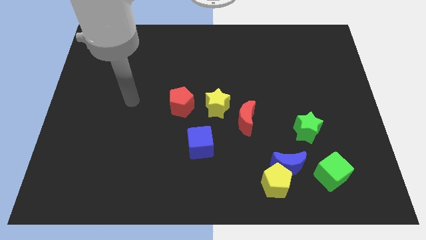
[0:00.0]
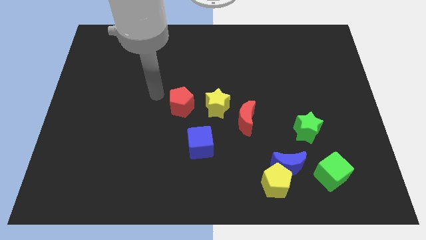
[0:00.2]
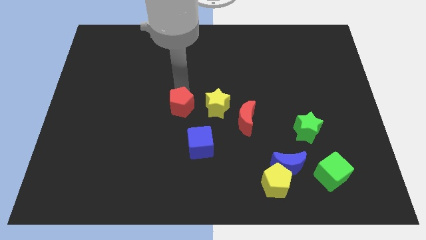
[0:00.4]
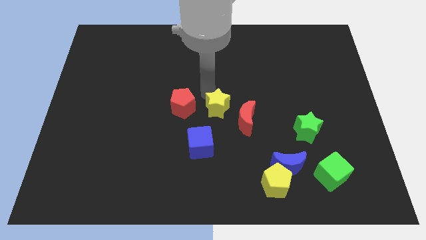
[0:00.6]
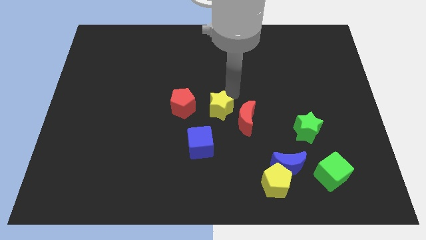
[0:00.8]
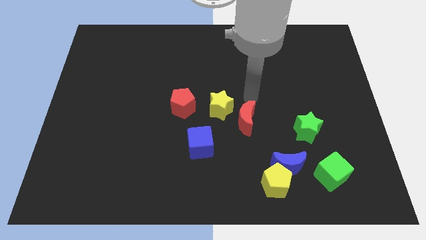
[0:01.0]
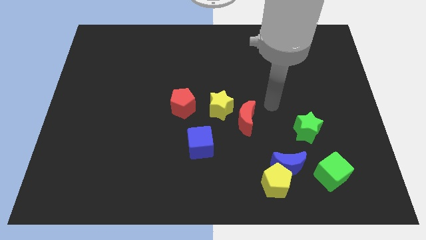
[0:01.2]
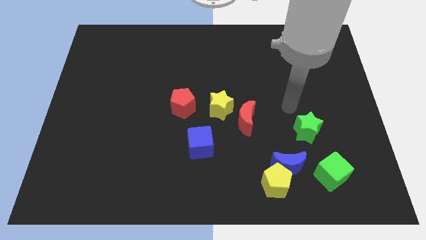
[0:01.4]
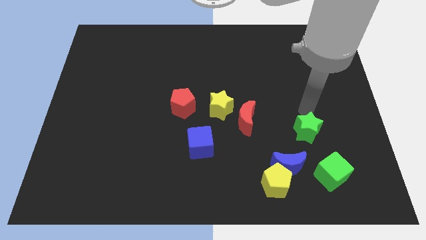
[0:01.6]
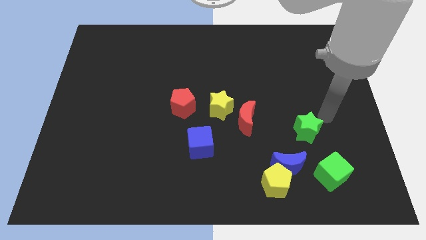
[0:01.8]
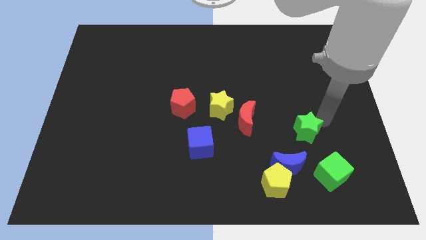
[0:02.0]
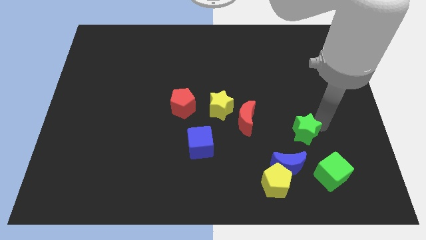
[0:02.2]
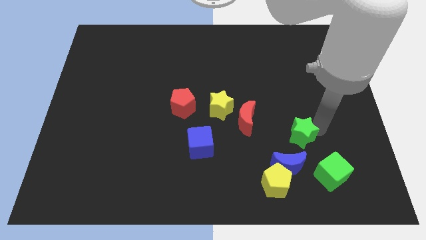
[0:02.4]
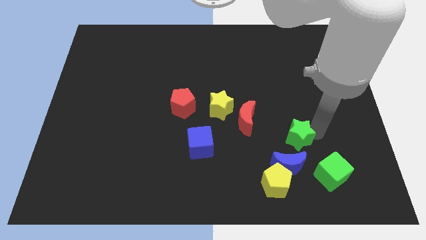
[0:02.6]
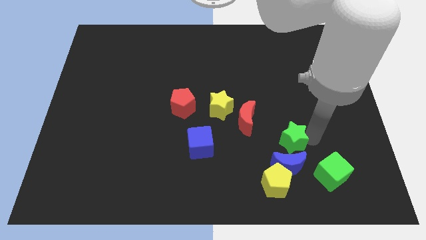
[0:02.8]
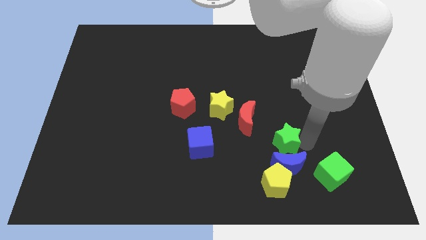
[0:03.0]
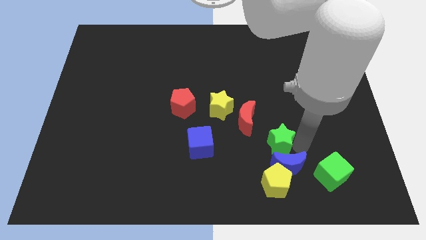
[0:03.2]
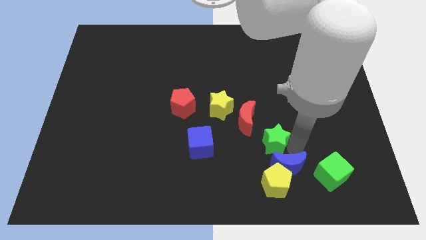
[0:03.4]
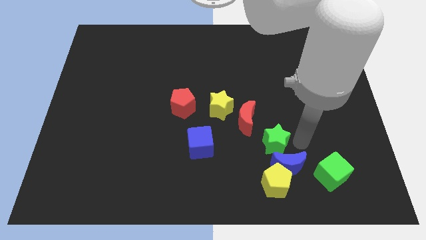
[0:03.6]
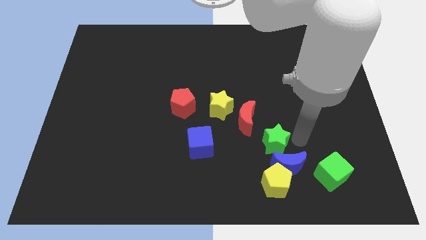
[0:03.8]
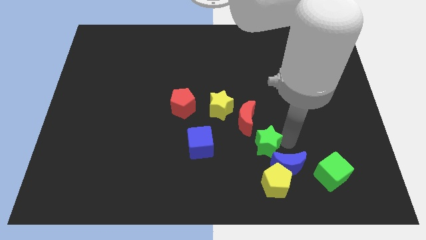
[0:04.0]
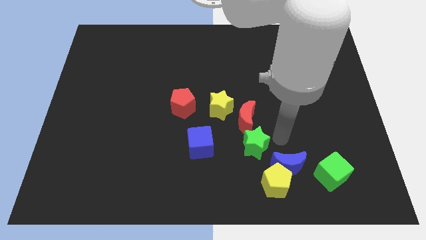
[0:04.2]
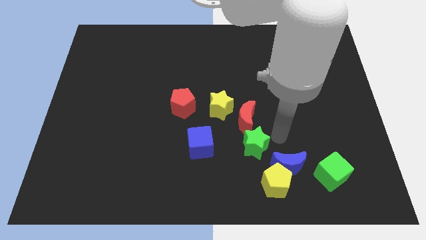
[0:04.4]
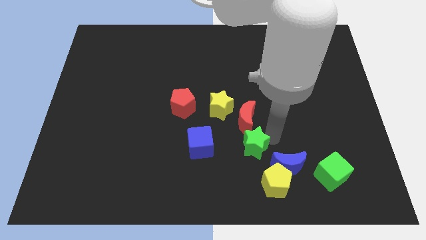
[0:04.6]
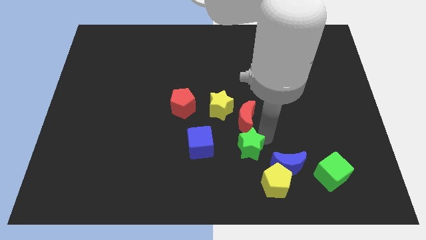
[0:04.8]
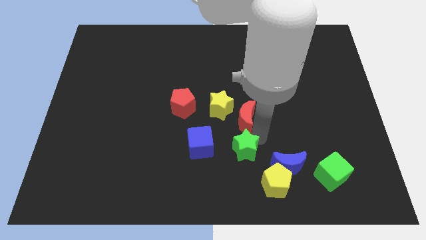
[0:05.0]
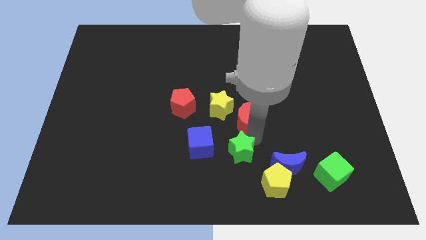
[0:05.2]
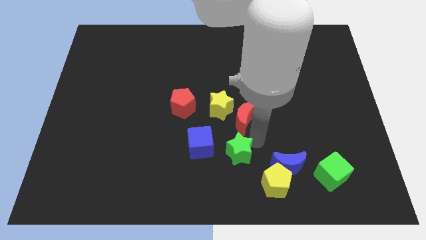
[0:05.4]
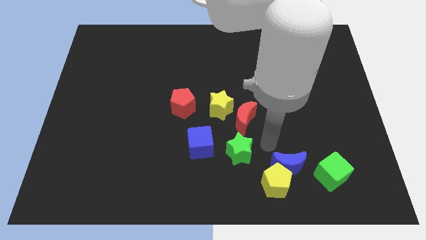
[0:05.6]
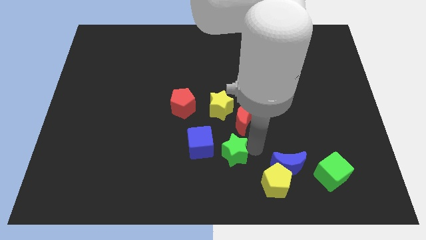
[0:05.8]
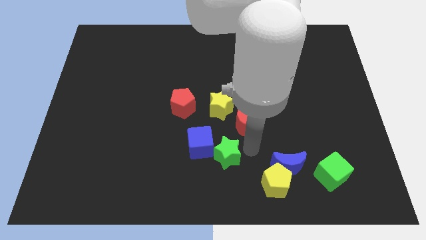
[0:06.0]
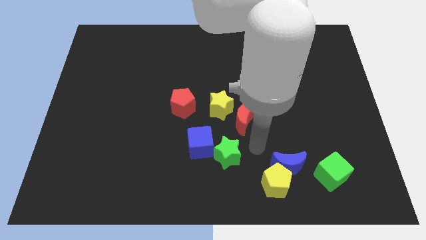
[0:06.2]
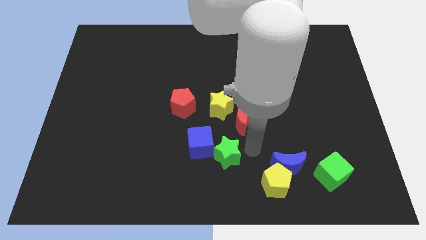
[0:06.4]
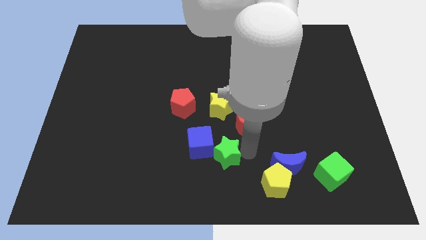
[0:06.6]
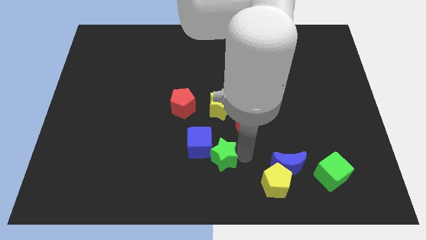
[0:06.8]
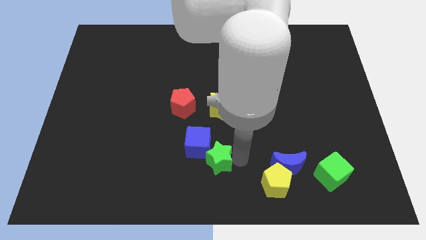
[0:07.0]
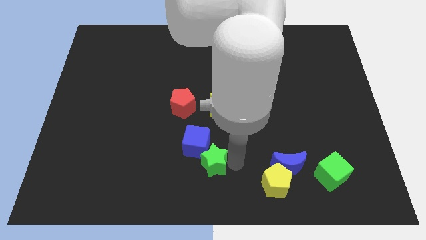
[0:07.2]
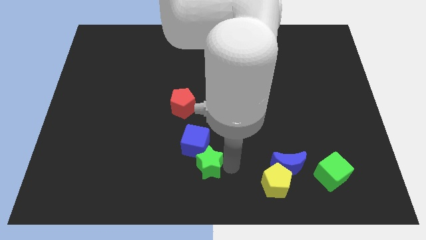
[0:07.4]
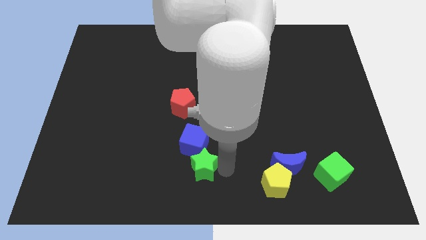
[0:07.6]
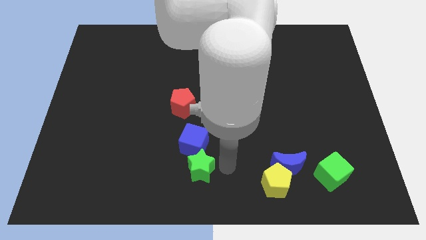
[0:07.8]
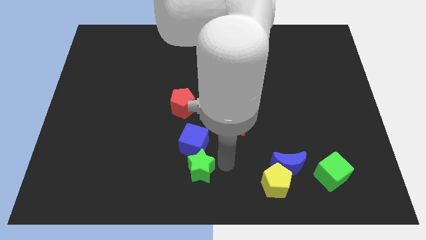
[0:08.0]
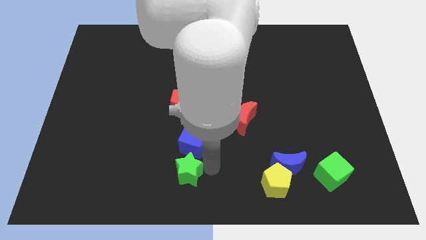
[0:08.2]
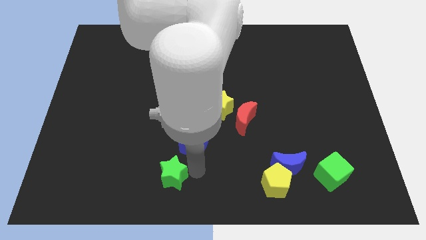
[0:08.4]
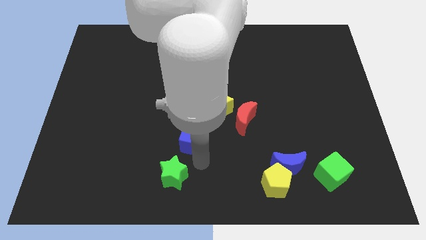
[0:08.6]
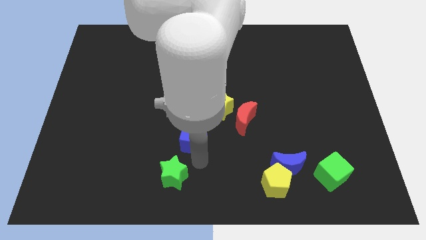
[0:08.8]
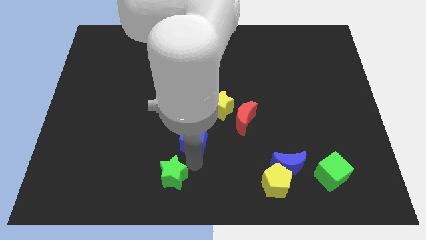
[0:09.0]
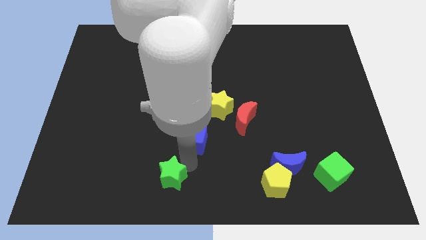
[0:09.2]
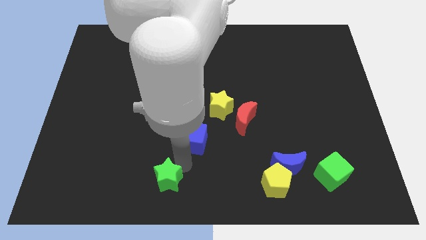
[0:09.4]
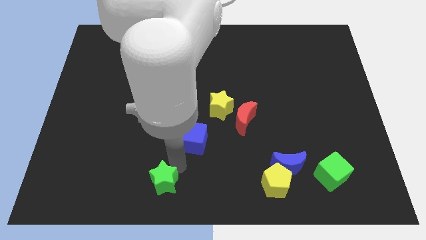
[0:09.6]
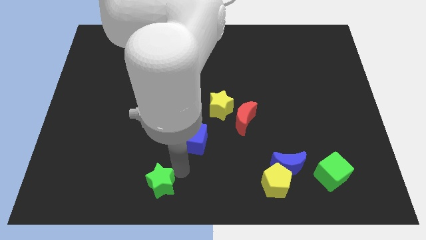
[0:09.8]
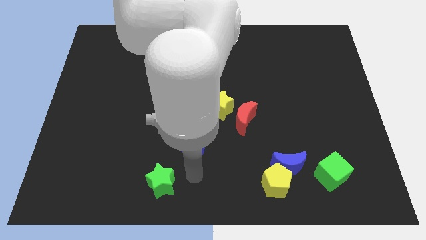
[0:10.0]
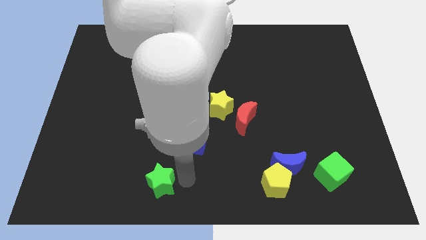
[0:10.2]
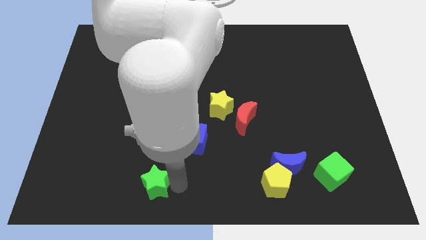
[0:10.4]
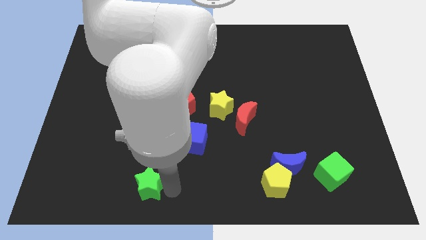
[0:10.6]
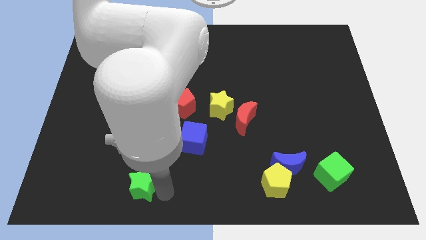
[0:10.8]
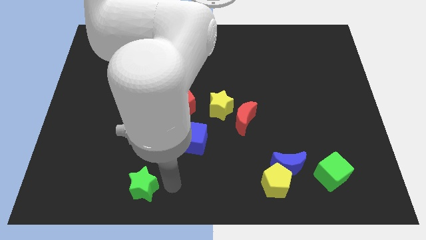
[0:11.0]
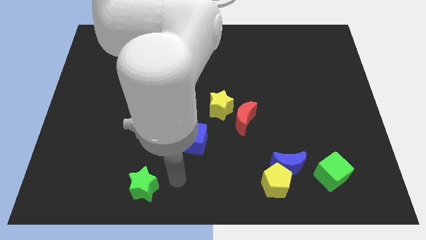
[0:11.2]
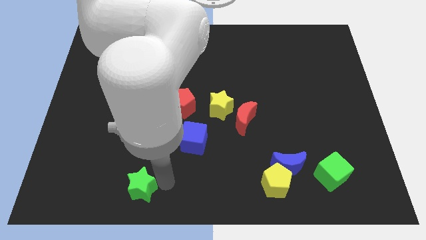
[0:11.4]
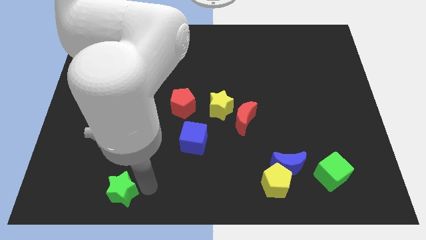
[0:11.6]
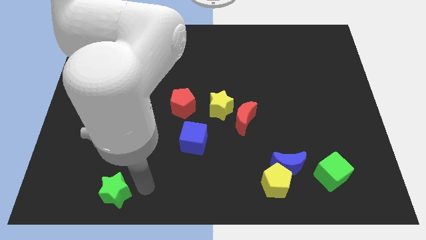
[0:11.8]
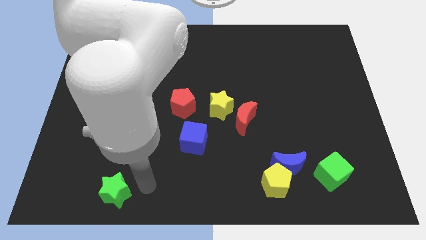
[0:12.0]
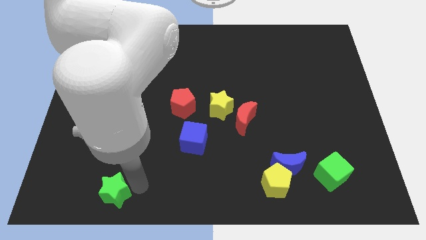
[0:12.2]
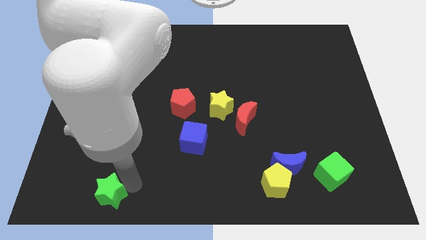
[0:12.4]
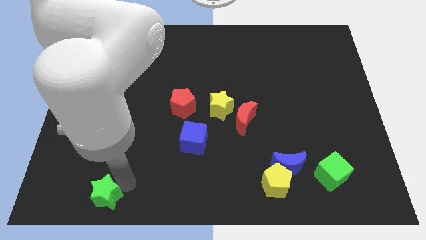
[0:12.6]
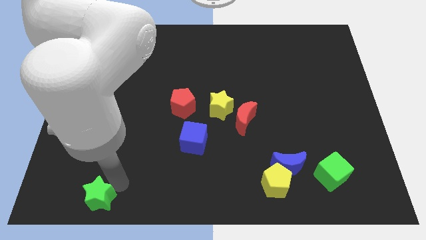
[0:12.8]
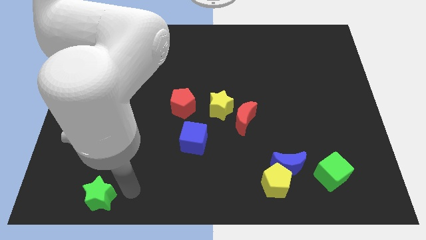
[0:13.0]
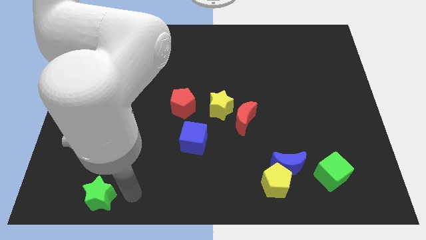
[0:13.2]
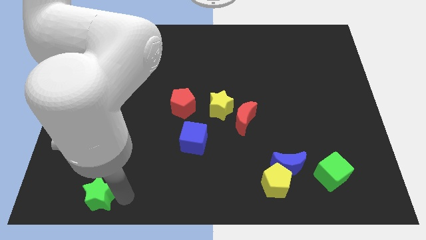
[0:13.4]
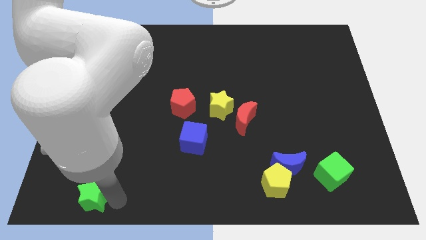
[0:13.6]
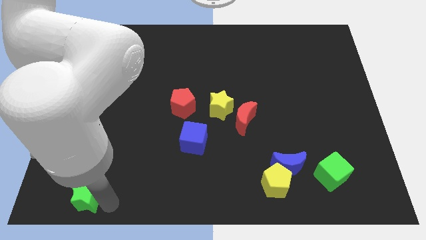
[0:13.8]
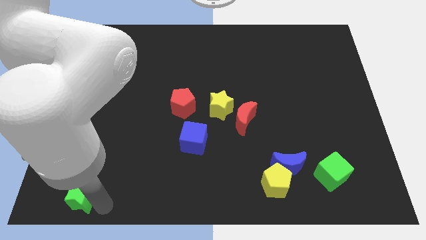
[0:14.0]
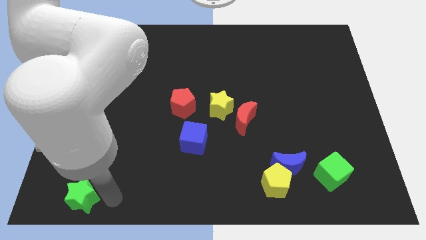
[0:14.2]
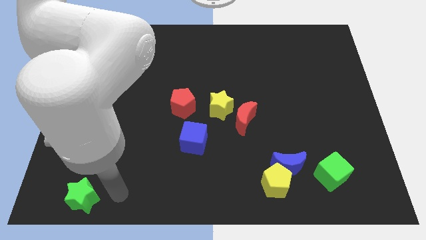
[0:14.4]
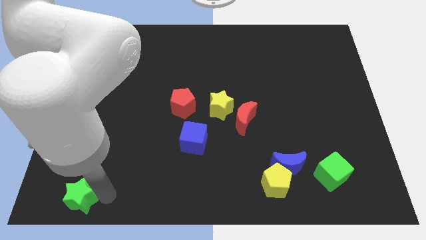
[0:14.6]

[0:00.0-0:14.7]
put the green star to the bottom left
